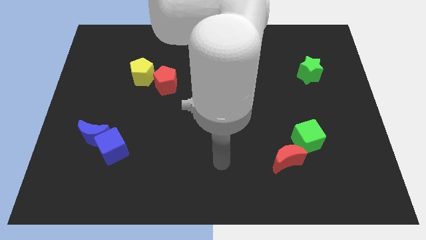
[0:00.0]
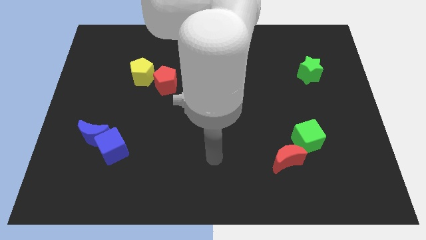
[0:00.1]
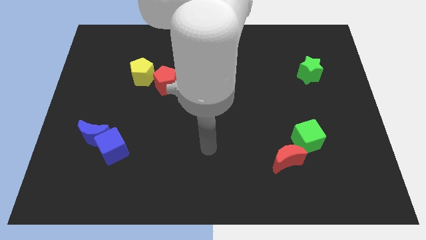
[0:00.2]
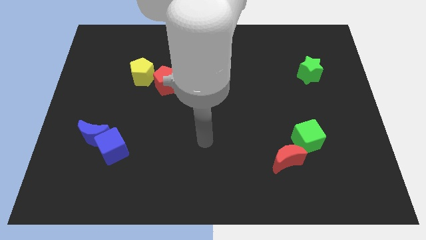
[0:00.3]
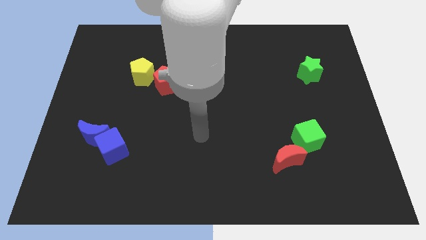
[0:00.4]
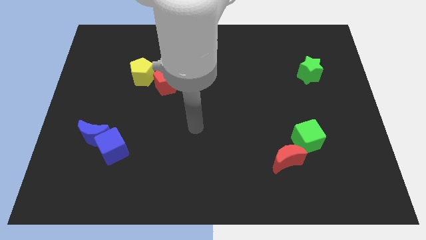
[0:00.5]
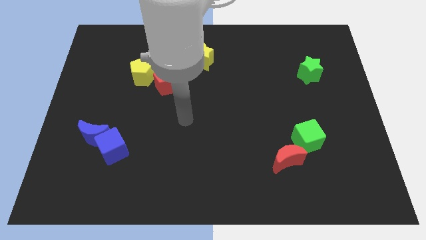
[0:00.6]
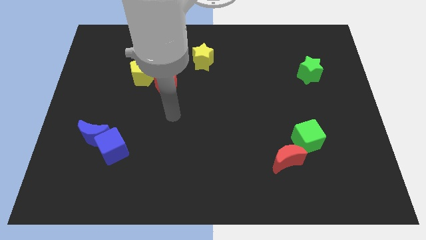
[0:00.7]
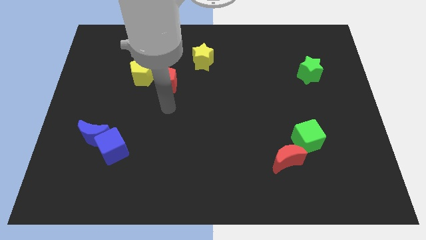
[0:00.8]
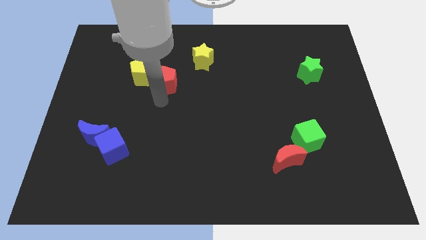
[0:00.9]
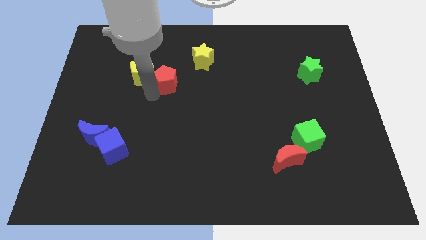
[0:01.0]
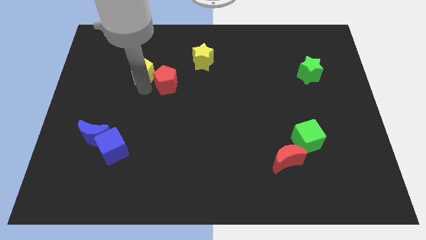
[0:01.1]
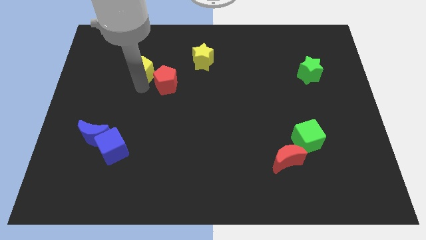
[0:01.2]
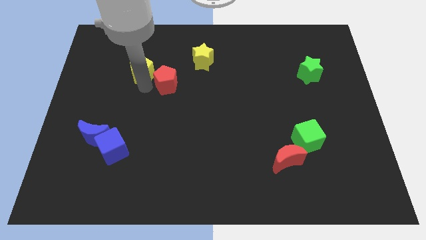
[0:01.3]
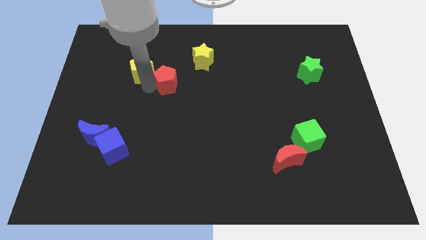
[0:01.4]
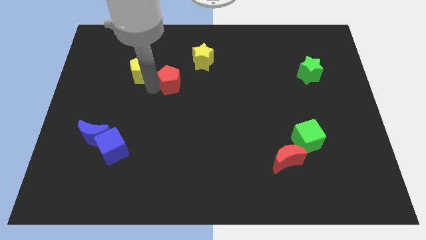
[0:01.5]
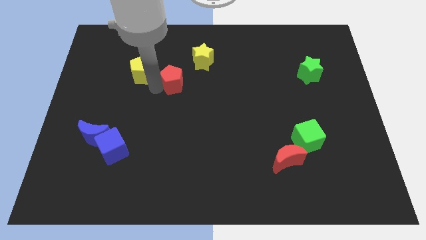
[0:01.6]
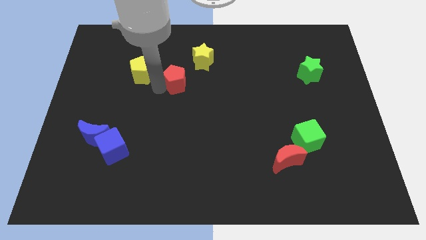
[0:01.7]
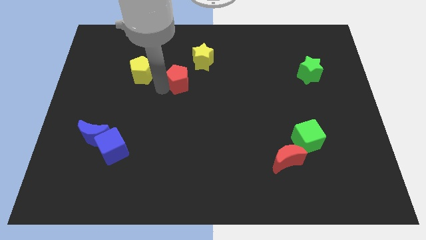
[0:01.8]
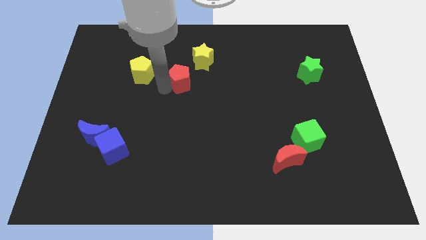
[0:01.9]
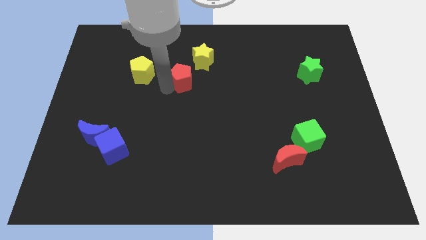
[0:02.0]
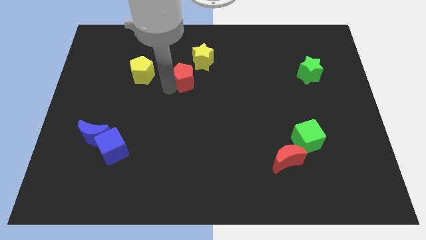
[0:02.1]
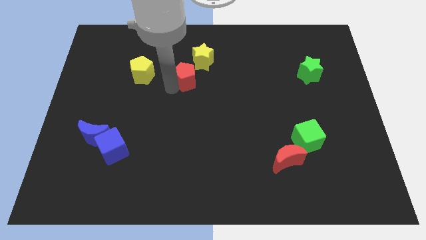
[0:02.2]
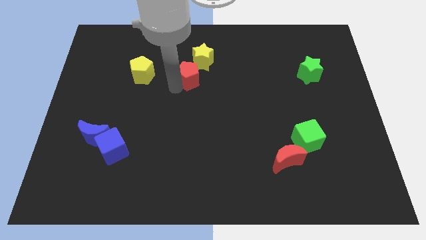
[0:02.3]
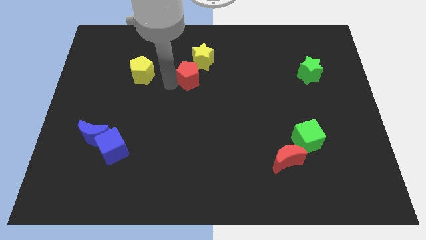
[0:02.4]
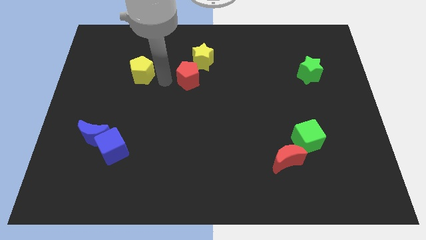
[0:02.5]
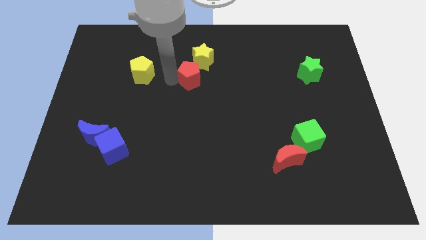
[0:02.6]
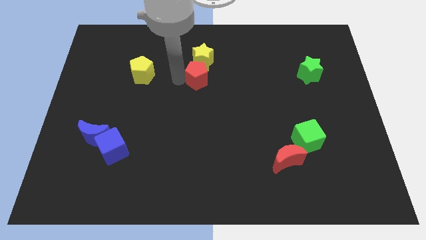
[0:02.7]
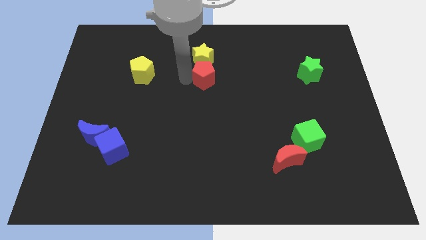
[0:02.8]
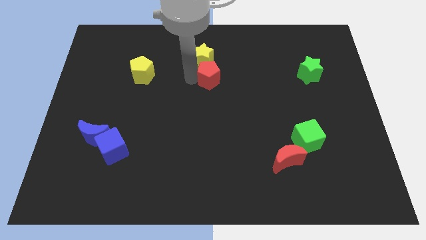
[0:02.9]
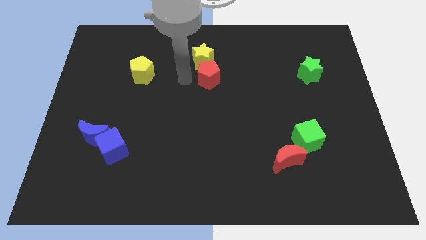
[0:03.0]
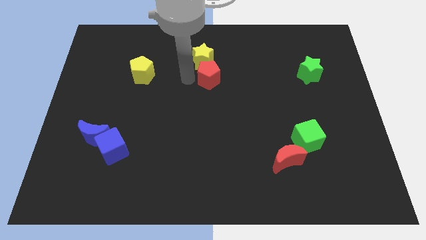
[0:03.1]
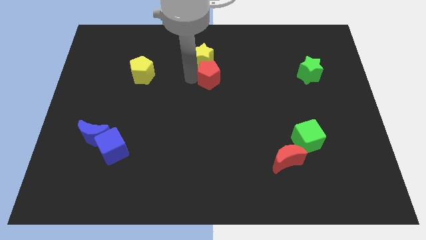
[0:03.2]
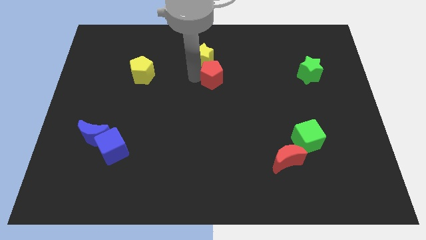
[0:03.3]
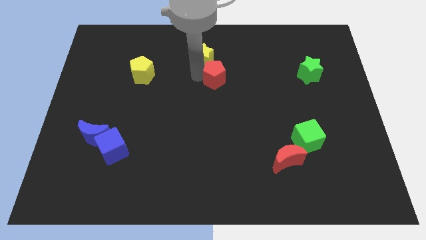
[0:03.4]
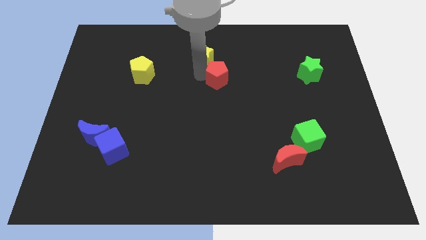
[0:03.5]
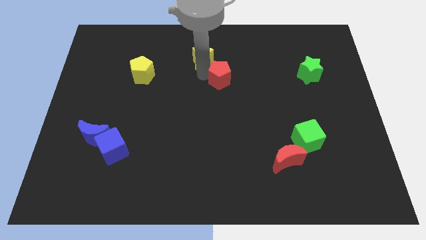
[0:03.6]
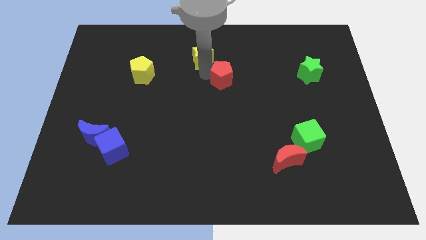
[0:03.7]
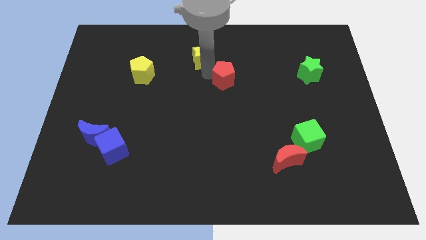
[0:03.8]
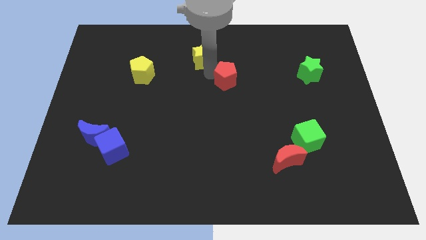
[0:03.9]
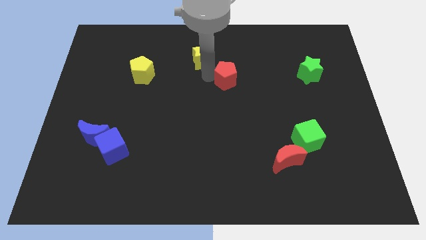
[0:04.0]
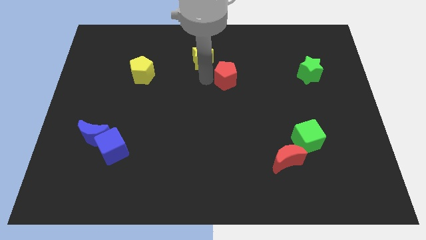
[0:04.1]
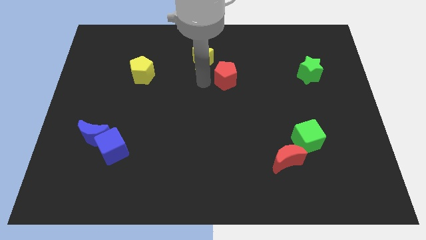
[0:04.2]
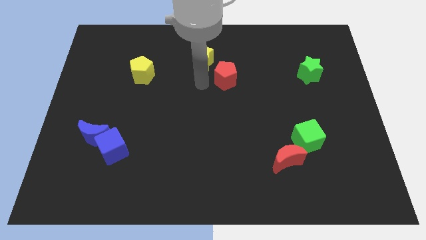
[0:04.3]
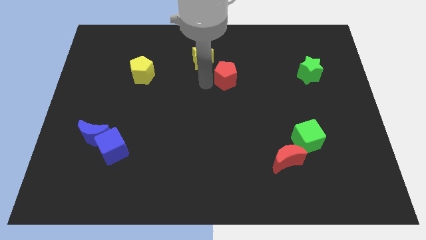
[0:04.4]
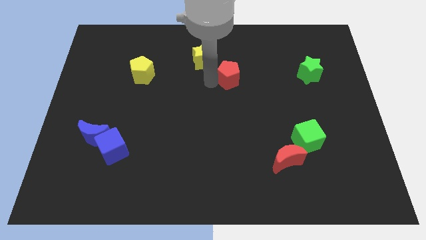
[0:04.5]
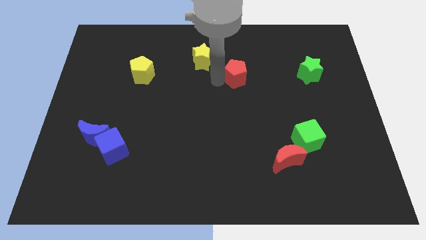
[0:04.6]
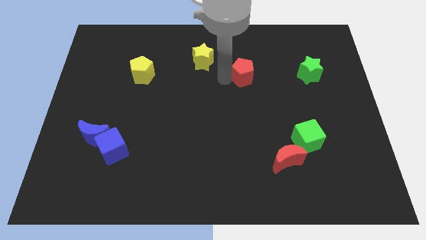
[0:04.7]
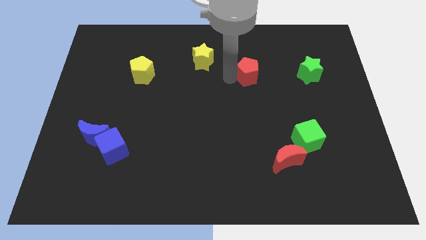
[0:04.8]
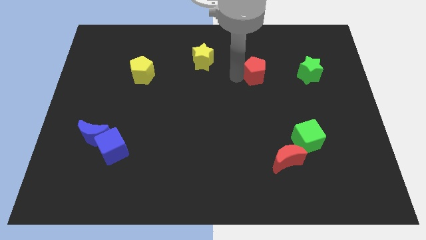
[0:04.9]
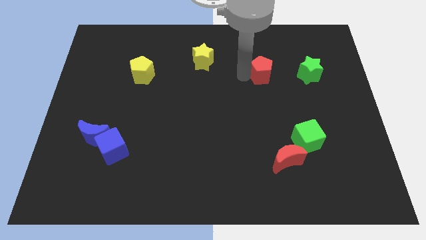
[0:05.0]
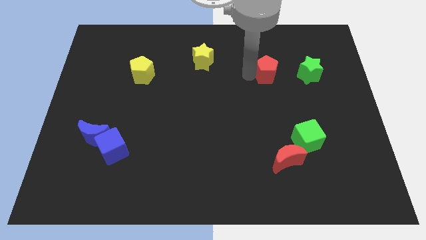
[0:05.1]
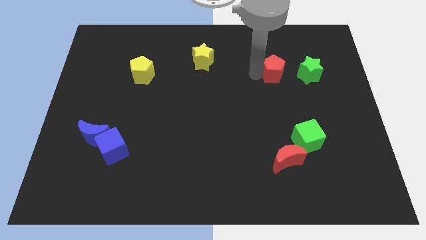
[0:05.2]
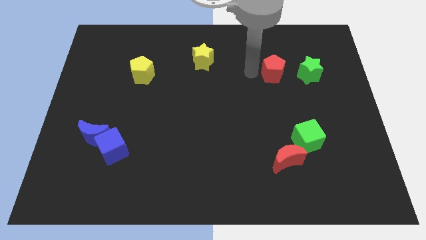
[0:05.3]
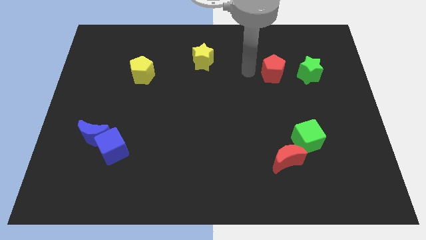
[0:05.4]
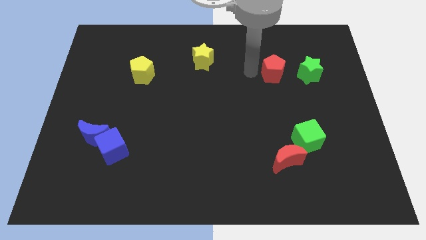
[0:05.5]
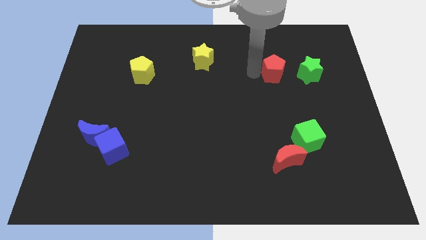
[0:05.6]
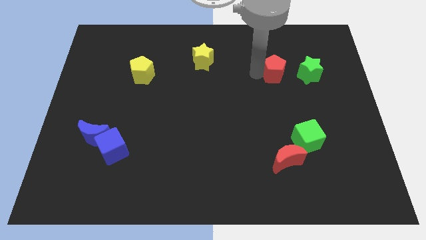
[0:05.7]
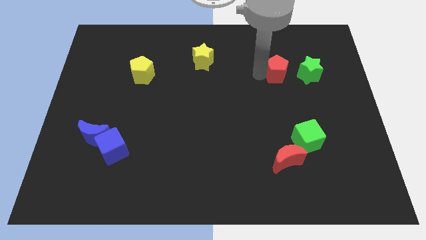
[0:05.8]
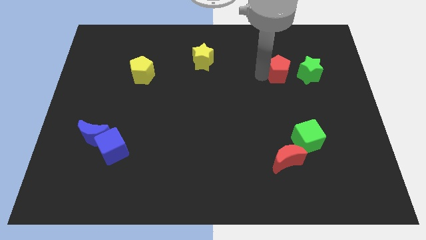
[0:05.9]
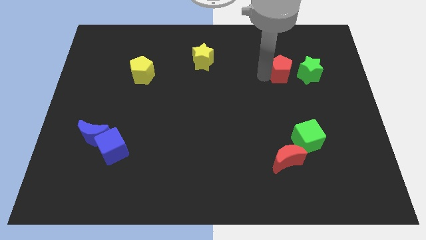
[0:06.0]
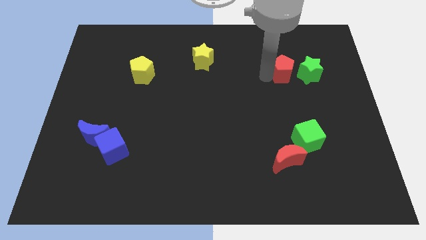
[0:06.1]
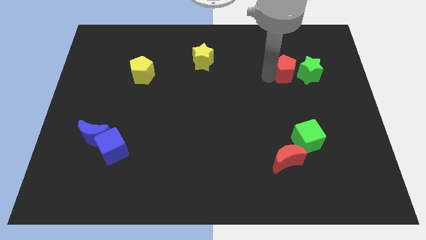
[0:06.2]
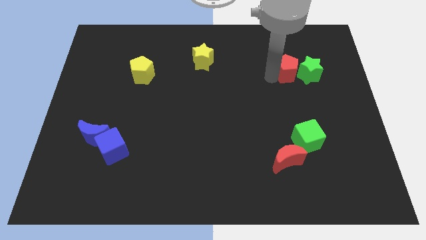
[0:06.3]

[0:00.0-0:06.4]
slide the red pentagon close to the green star

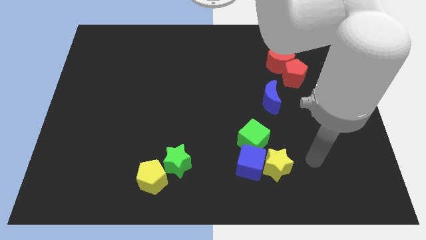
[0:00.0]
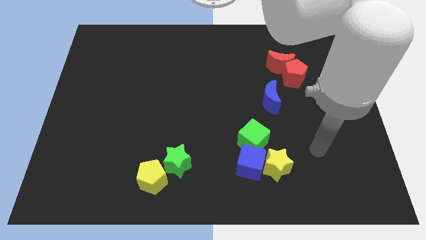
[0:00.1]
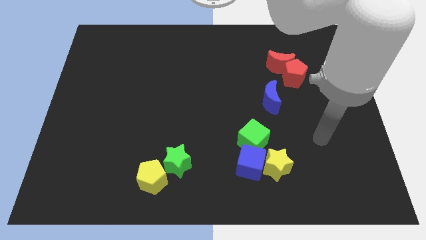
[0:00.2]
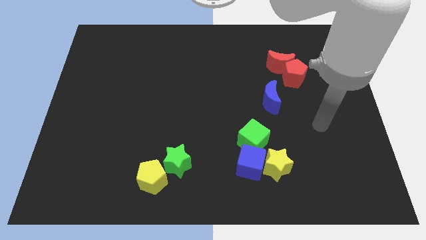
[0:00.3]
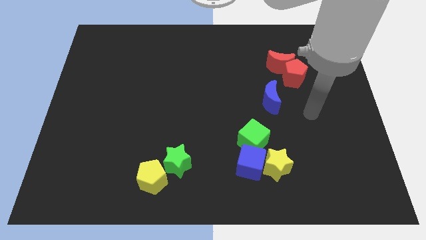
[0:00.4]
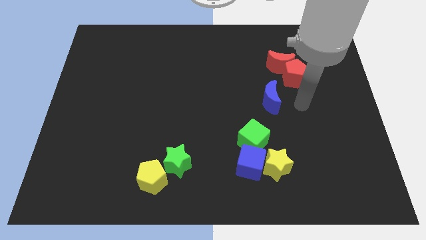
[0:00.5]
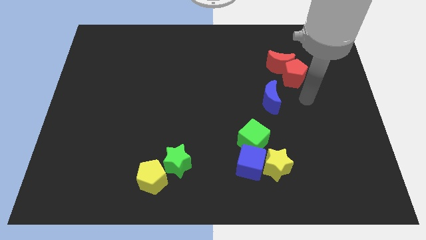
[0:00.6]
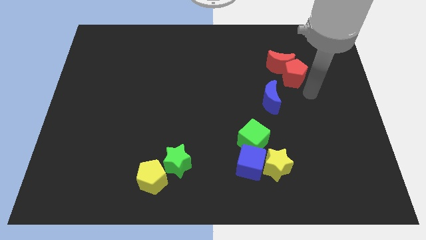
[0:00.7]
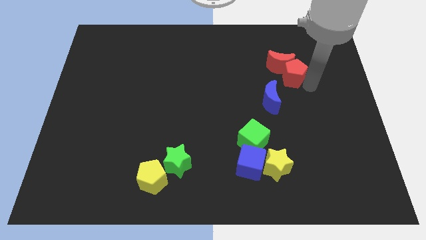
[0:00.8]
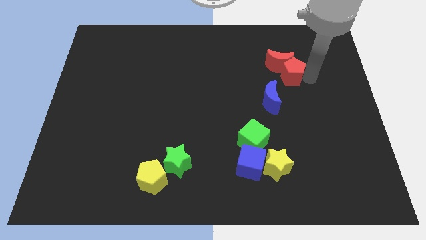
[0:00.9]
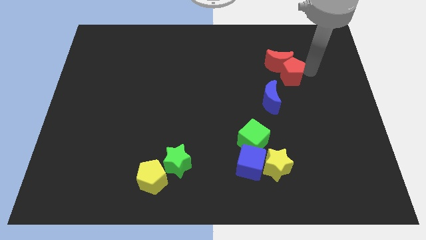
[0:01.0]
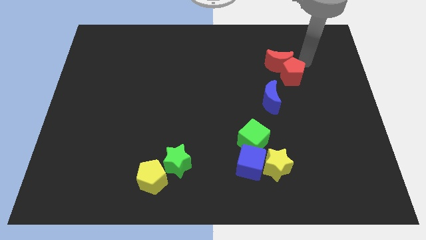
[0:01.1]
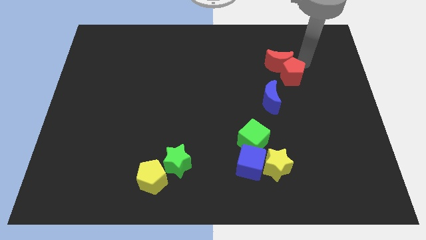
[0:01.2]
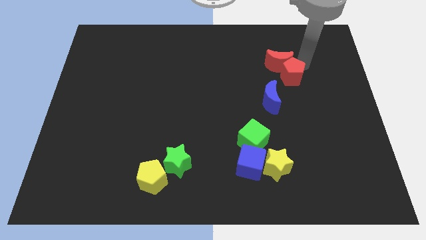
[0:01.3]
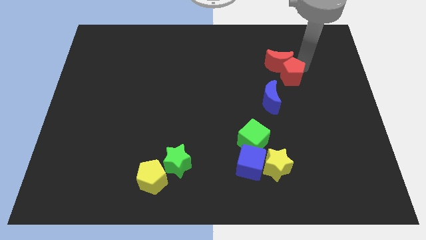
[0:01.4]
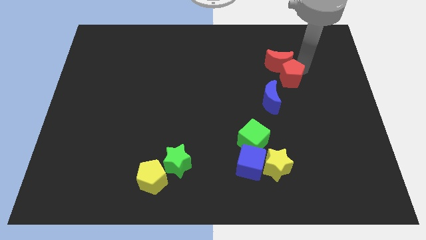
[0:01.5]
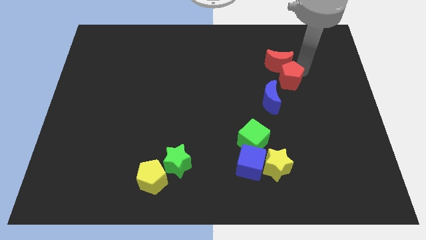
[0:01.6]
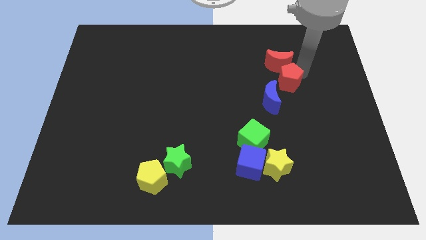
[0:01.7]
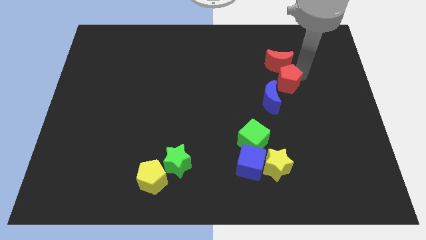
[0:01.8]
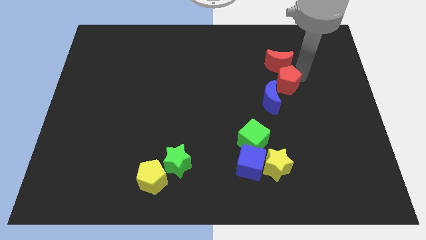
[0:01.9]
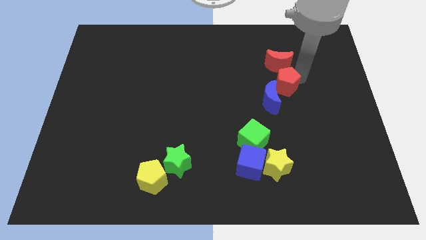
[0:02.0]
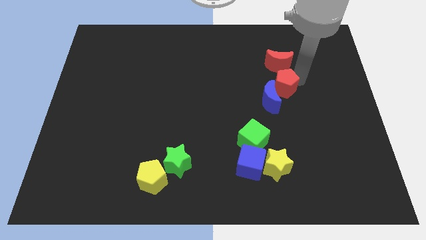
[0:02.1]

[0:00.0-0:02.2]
put the red pentagon towards the blue moon
